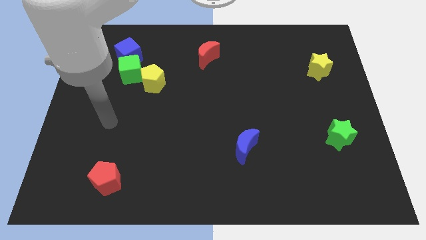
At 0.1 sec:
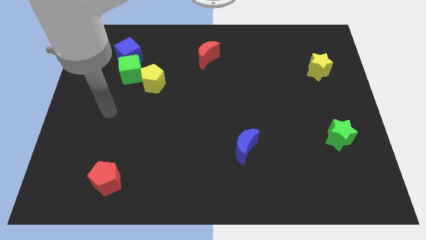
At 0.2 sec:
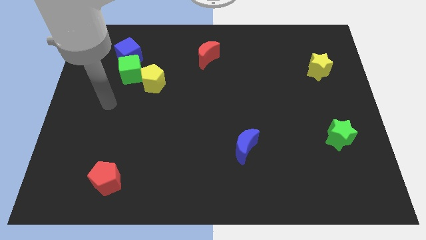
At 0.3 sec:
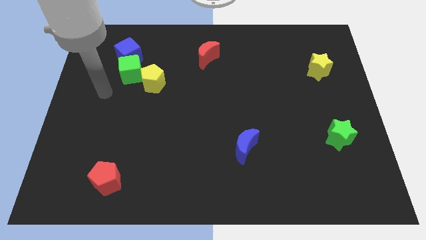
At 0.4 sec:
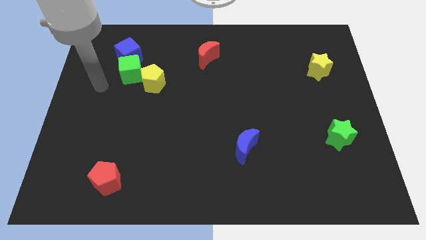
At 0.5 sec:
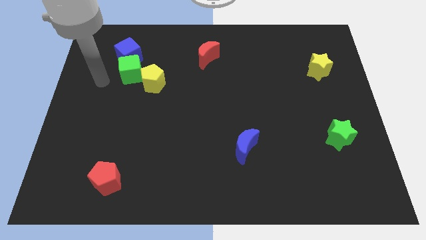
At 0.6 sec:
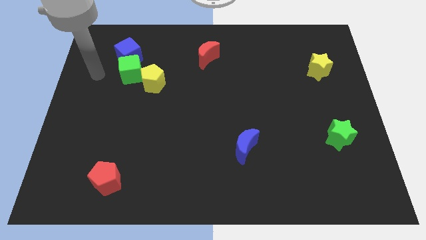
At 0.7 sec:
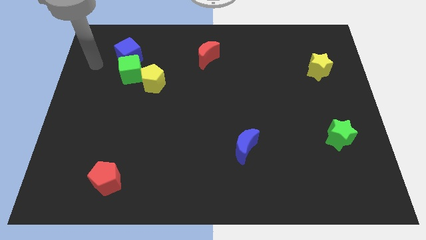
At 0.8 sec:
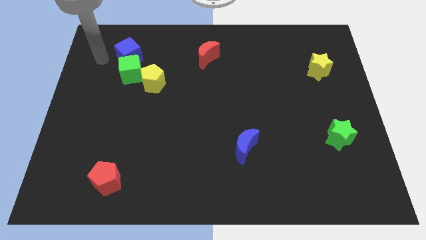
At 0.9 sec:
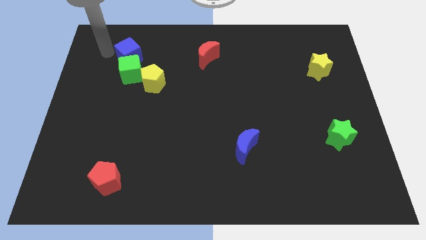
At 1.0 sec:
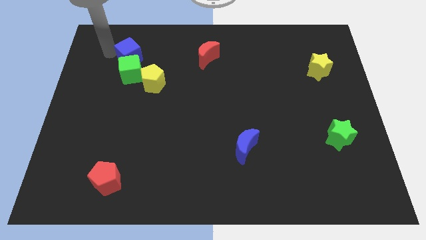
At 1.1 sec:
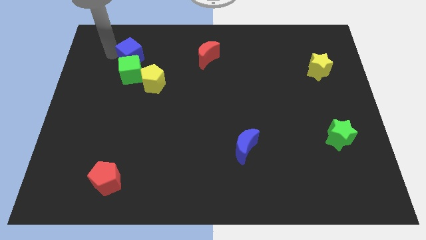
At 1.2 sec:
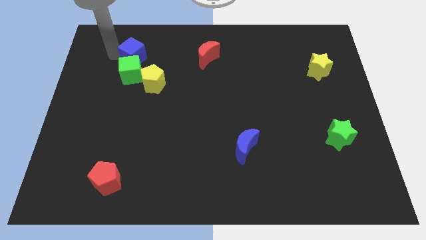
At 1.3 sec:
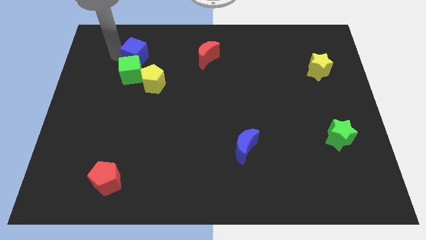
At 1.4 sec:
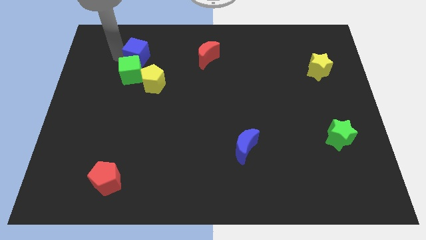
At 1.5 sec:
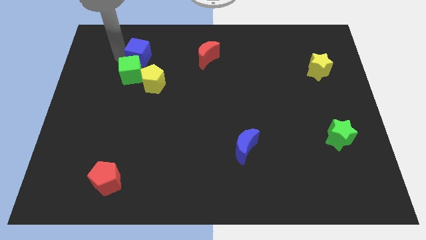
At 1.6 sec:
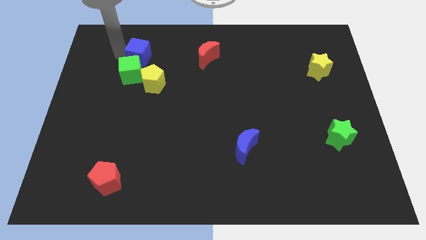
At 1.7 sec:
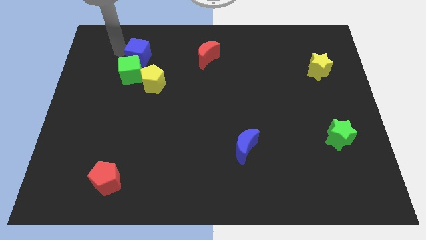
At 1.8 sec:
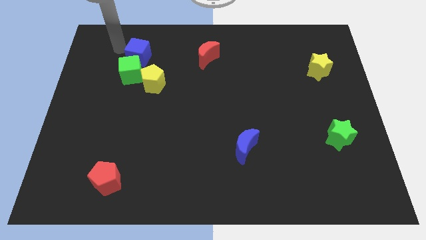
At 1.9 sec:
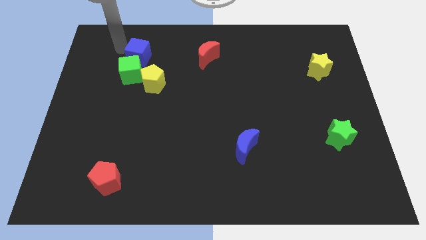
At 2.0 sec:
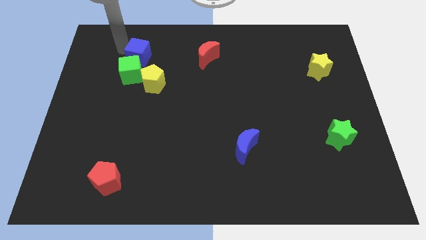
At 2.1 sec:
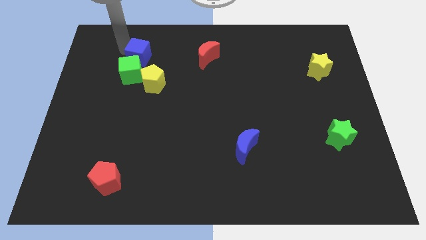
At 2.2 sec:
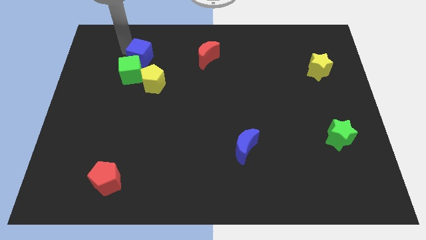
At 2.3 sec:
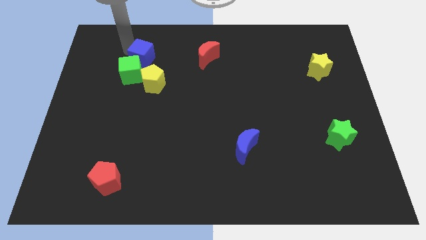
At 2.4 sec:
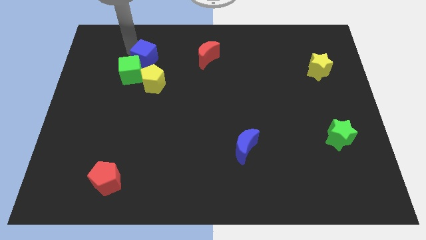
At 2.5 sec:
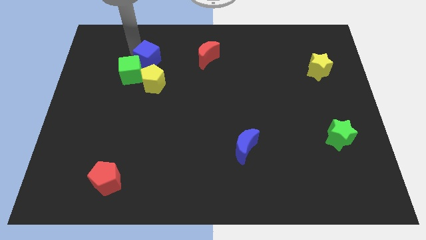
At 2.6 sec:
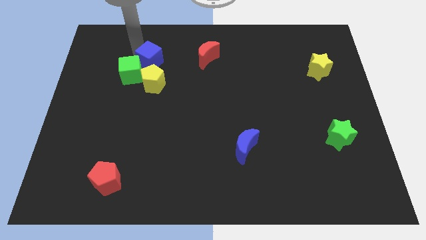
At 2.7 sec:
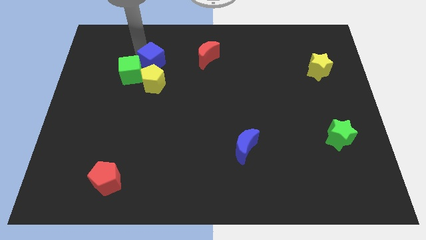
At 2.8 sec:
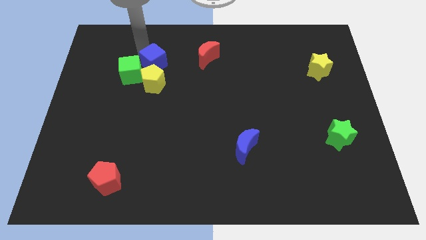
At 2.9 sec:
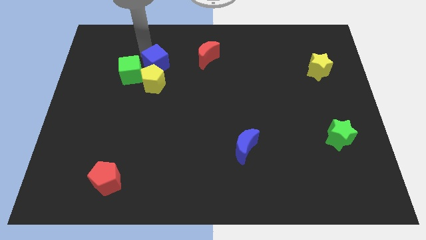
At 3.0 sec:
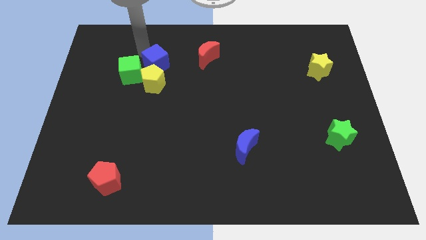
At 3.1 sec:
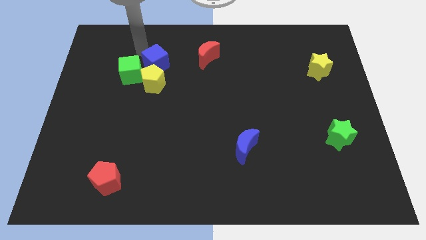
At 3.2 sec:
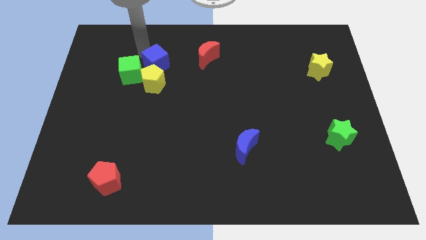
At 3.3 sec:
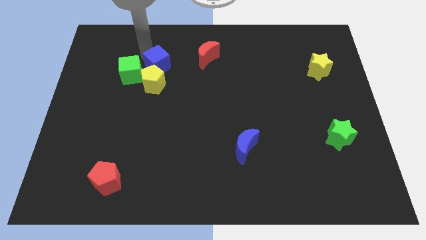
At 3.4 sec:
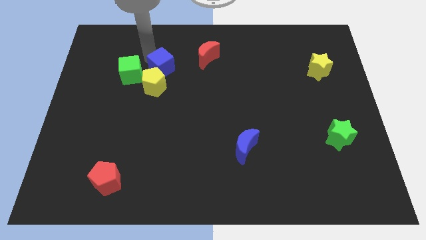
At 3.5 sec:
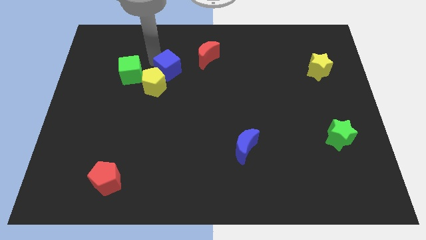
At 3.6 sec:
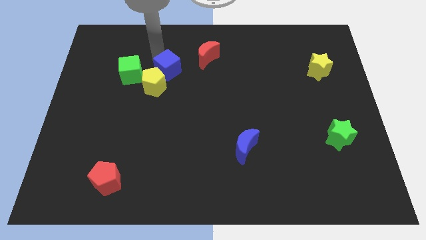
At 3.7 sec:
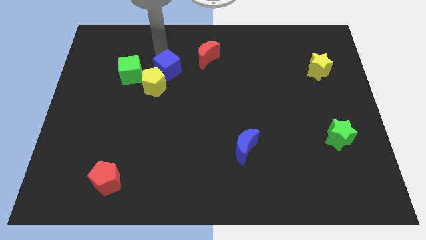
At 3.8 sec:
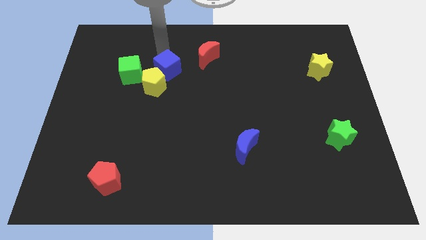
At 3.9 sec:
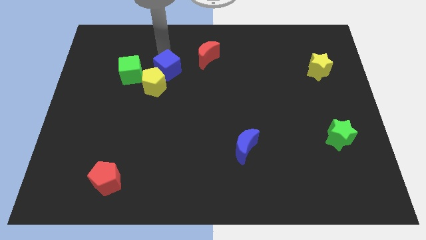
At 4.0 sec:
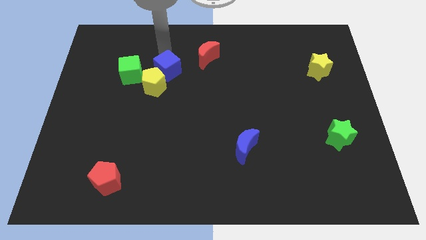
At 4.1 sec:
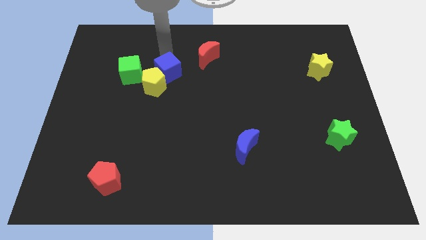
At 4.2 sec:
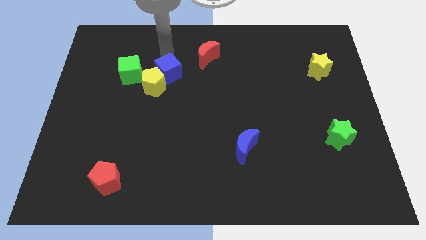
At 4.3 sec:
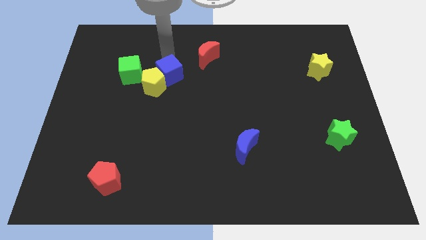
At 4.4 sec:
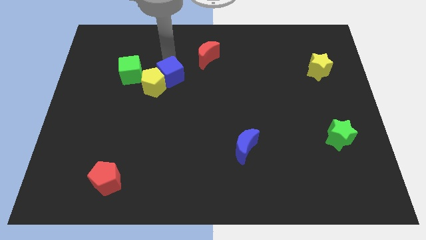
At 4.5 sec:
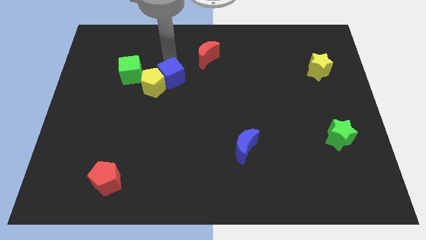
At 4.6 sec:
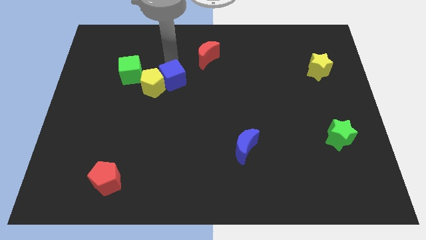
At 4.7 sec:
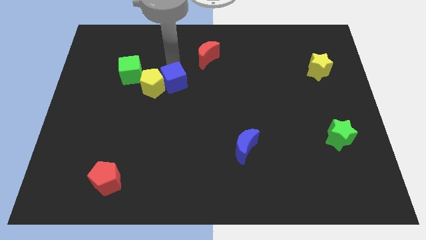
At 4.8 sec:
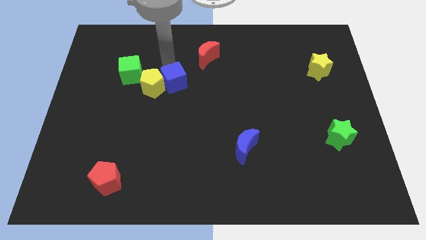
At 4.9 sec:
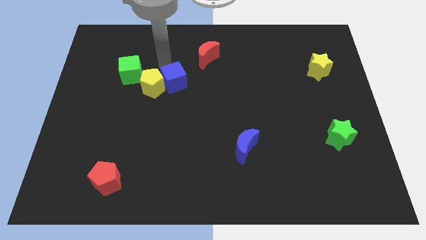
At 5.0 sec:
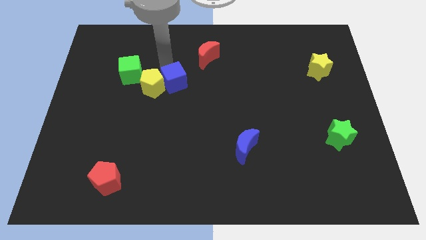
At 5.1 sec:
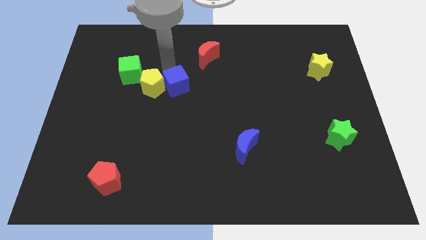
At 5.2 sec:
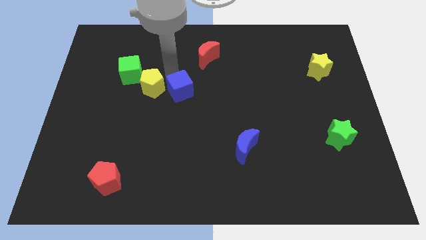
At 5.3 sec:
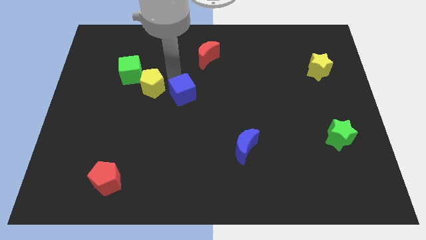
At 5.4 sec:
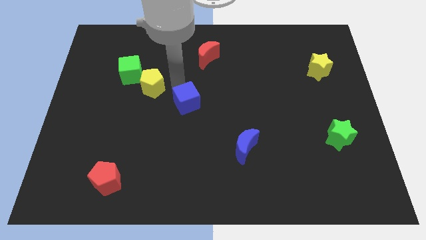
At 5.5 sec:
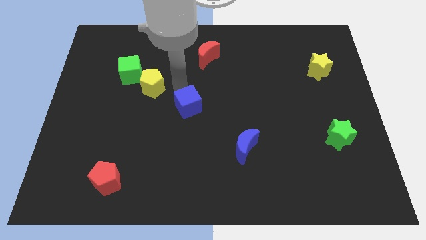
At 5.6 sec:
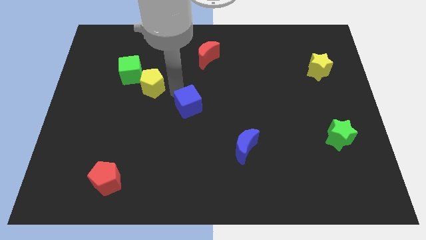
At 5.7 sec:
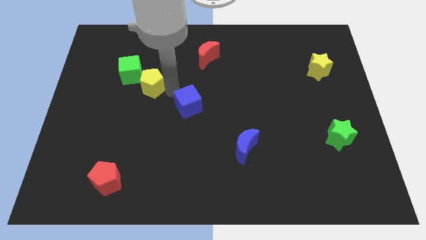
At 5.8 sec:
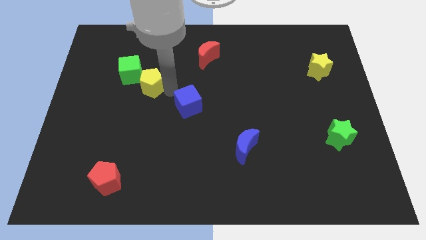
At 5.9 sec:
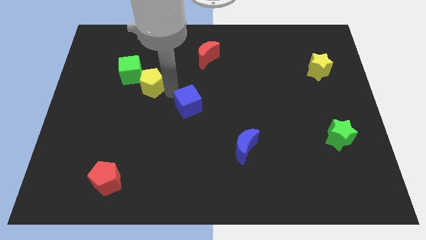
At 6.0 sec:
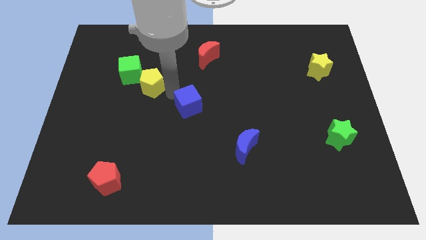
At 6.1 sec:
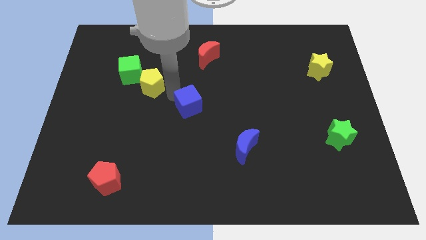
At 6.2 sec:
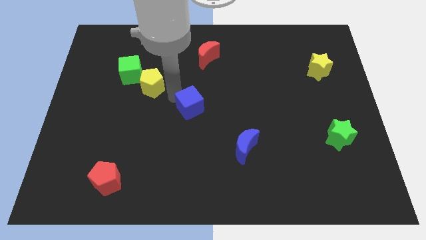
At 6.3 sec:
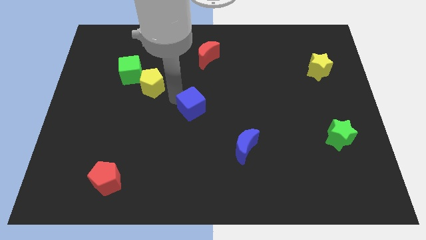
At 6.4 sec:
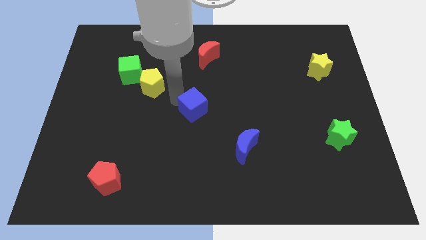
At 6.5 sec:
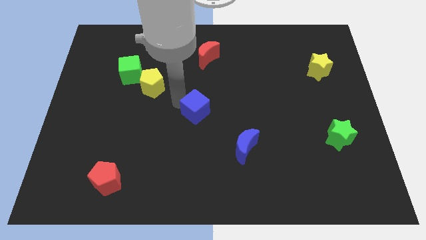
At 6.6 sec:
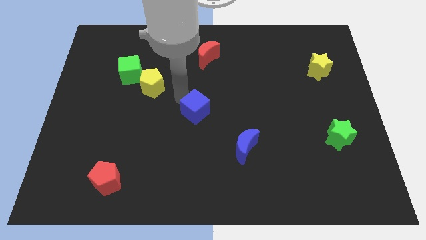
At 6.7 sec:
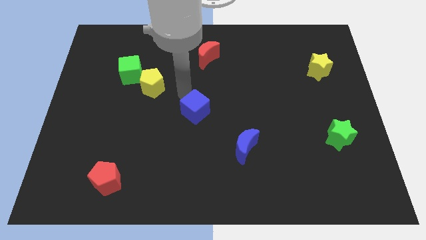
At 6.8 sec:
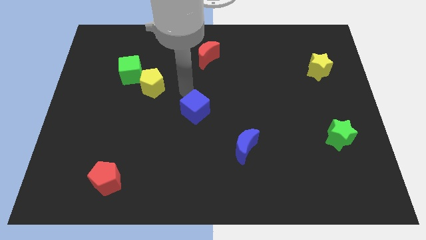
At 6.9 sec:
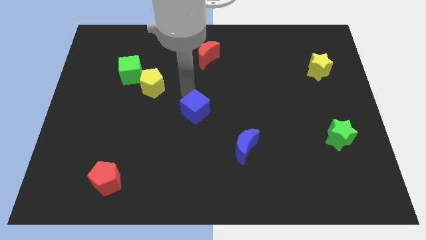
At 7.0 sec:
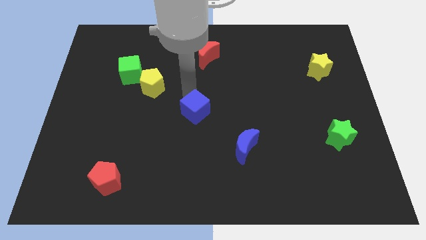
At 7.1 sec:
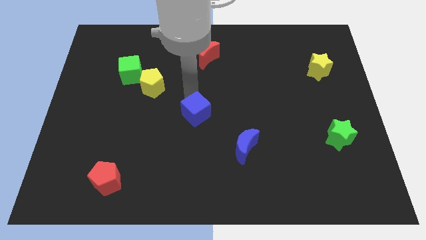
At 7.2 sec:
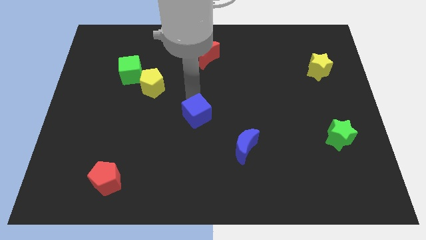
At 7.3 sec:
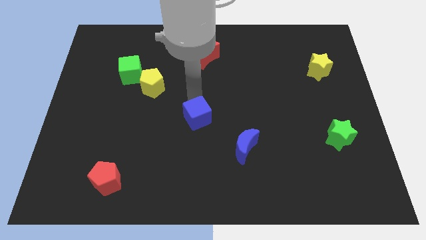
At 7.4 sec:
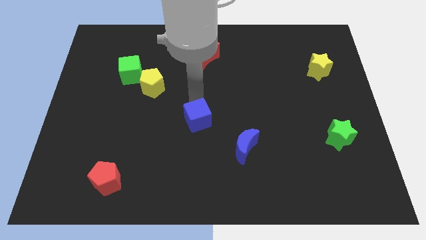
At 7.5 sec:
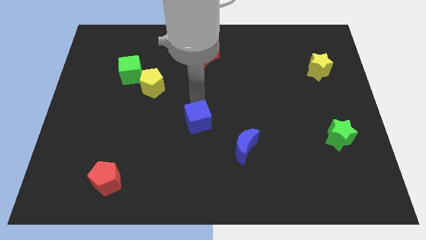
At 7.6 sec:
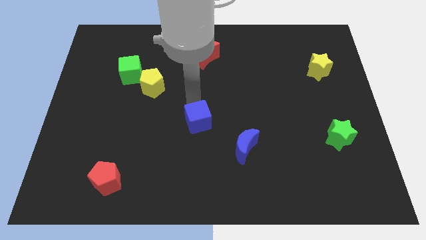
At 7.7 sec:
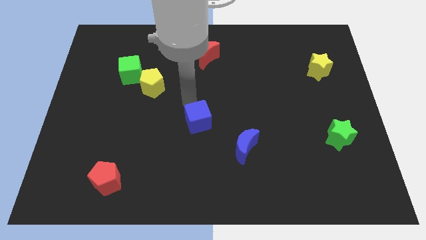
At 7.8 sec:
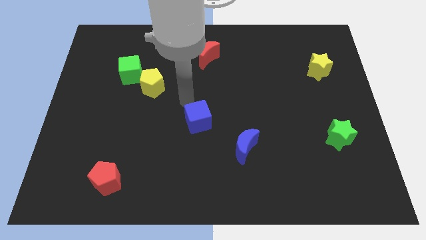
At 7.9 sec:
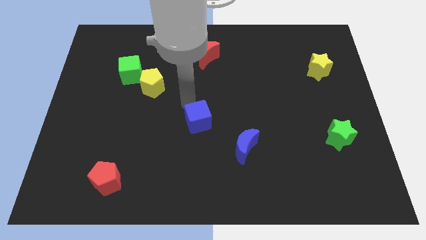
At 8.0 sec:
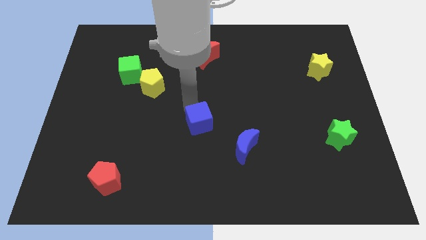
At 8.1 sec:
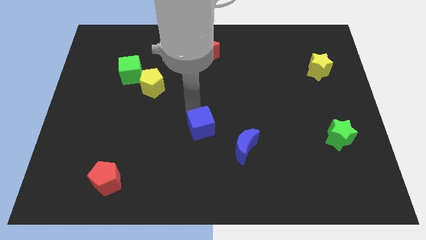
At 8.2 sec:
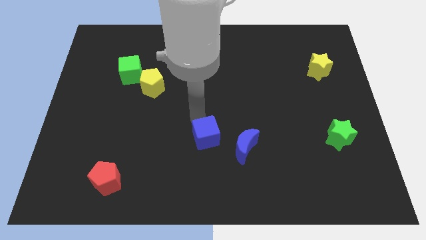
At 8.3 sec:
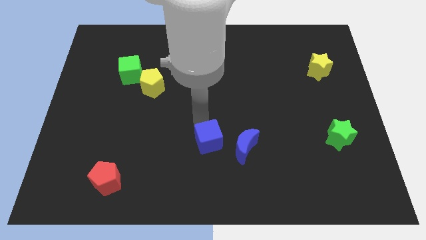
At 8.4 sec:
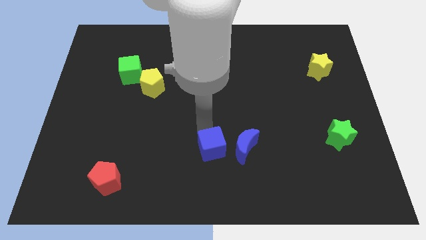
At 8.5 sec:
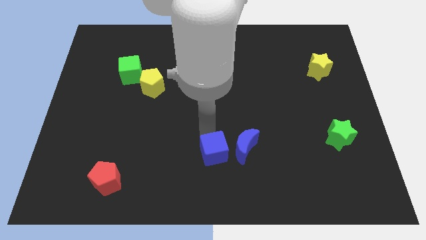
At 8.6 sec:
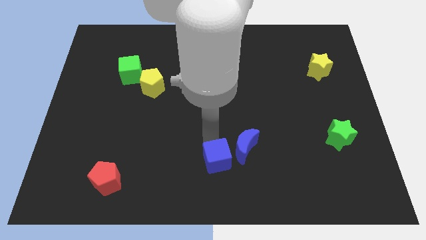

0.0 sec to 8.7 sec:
put the blue cube to the bottom side
